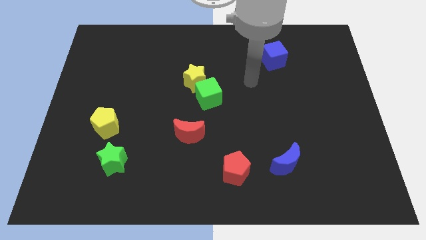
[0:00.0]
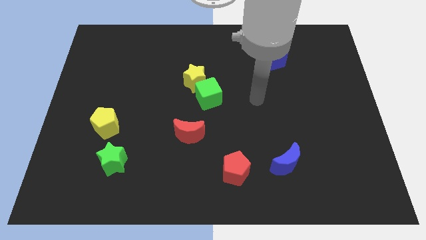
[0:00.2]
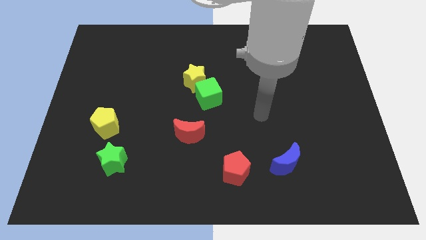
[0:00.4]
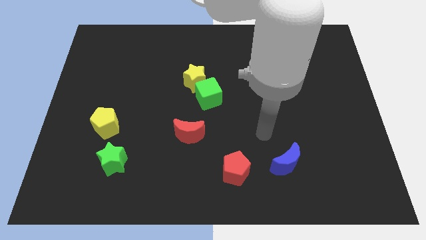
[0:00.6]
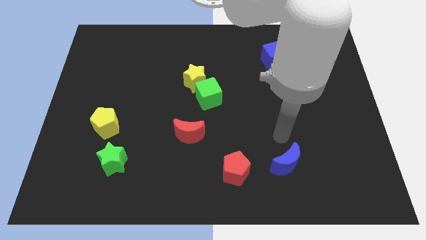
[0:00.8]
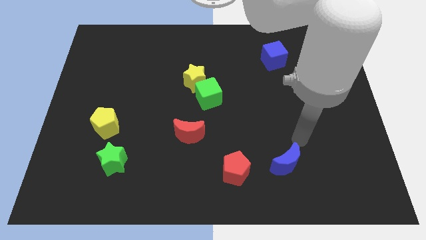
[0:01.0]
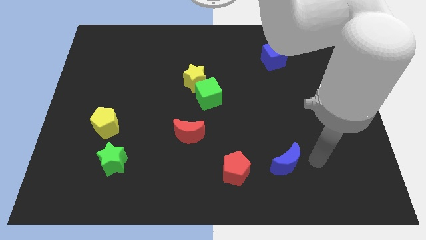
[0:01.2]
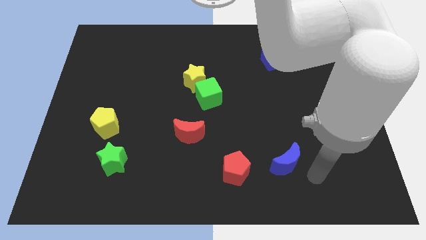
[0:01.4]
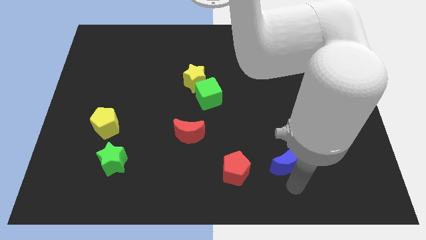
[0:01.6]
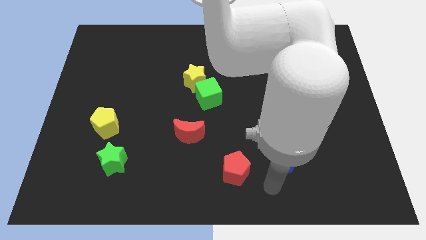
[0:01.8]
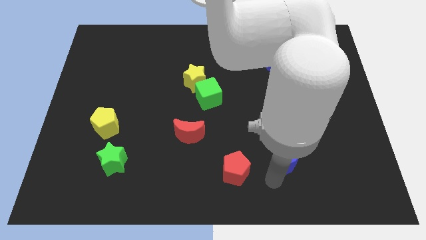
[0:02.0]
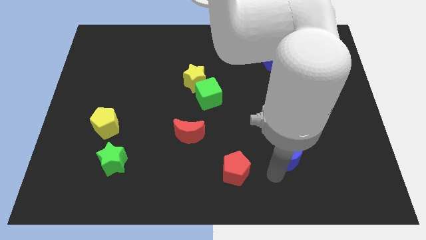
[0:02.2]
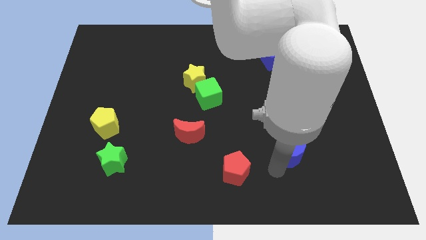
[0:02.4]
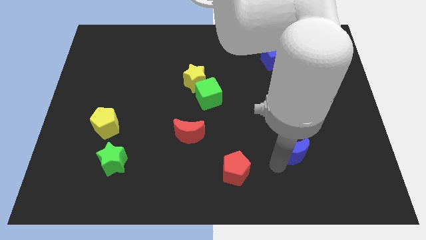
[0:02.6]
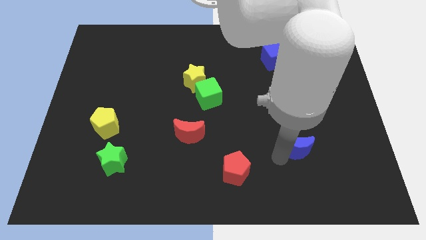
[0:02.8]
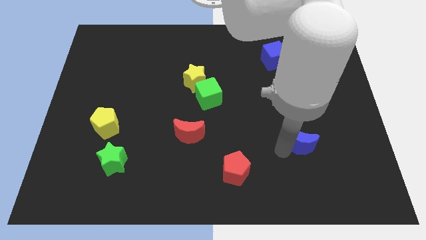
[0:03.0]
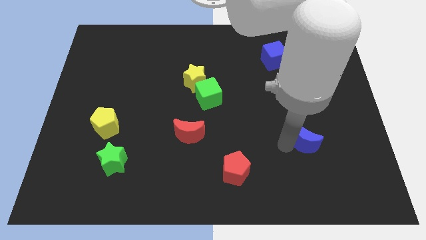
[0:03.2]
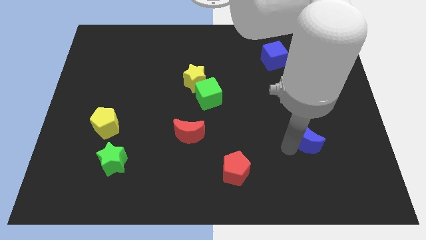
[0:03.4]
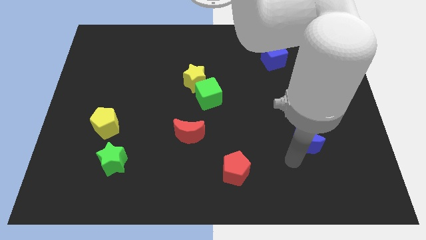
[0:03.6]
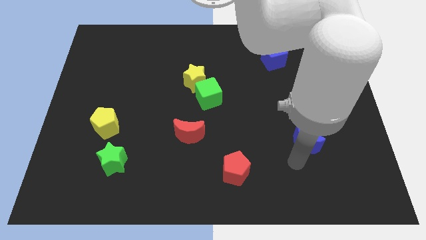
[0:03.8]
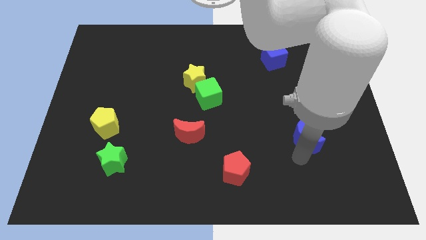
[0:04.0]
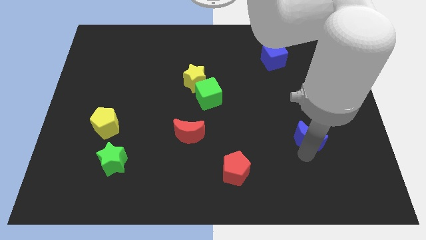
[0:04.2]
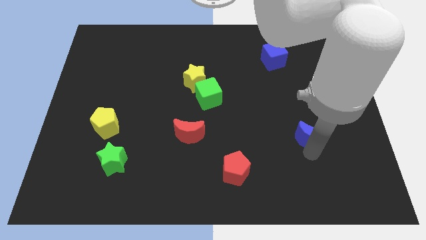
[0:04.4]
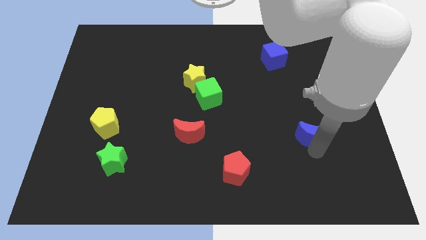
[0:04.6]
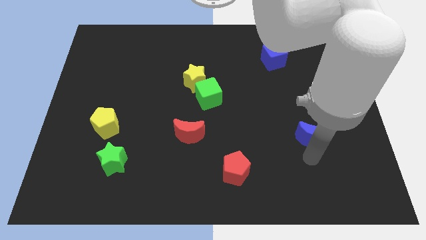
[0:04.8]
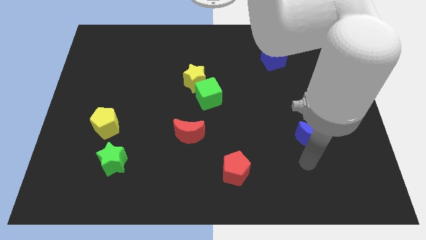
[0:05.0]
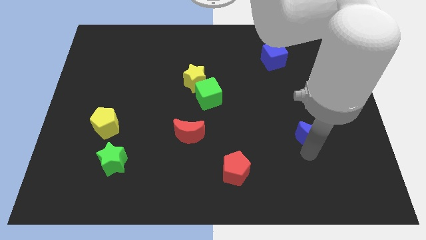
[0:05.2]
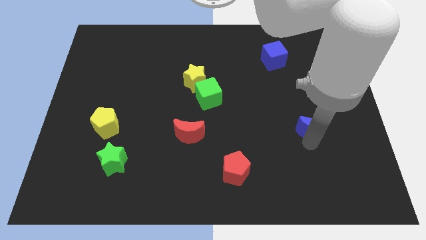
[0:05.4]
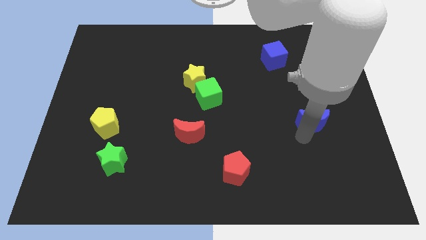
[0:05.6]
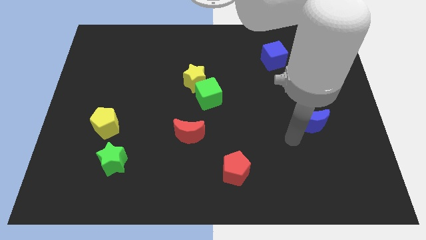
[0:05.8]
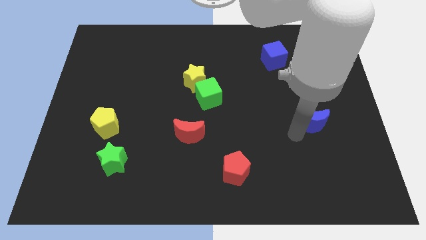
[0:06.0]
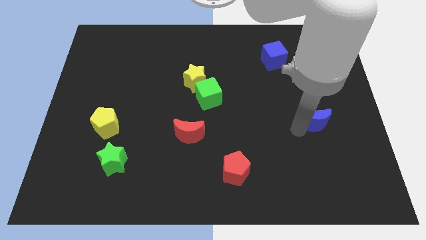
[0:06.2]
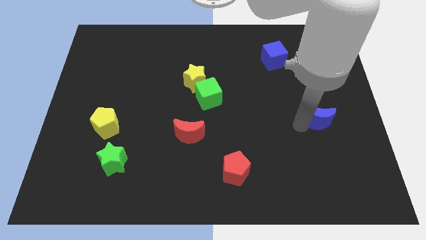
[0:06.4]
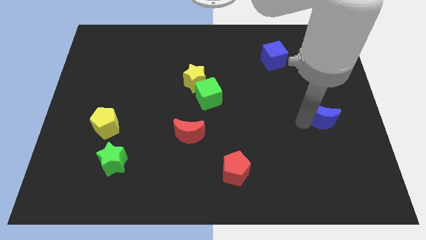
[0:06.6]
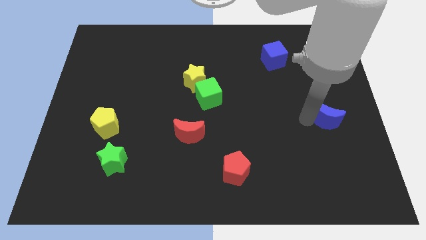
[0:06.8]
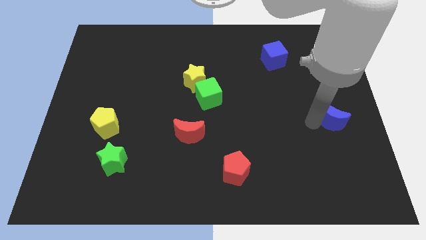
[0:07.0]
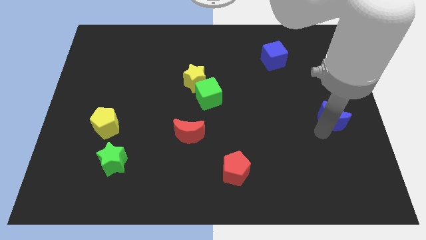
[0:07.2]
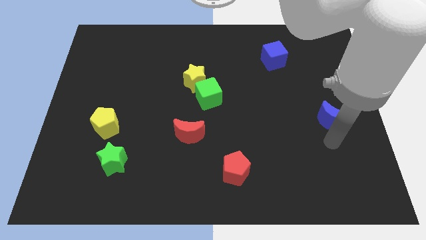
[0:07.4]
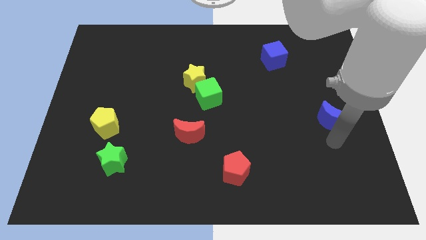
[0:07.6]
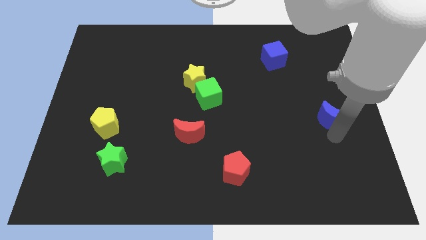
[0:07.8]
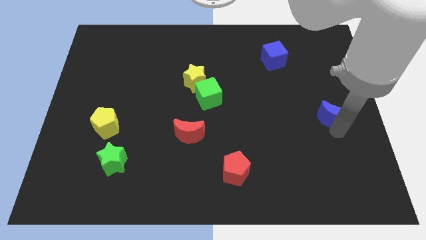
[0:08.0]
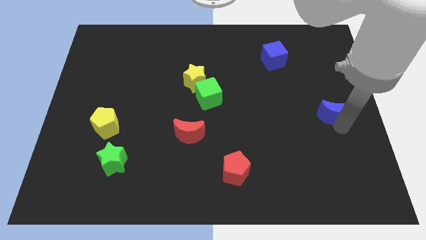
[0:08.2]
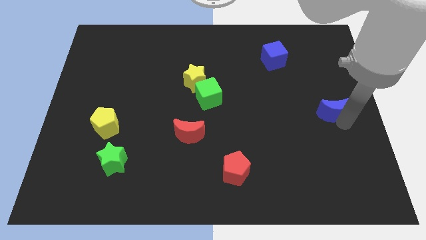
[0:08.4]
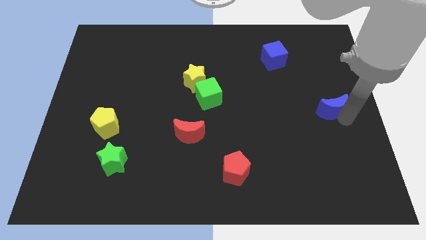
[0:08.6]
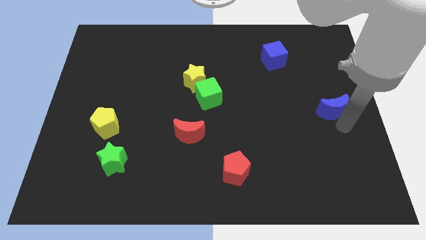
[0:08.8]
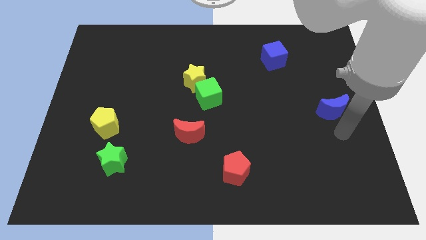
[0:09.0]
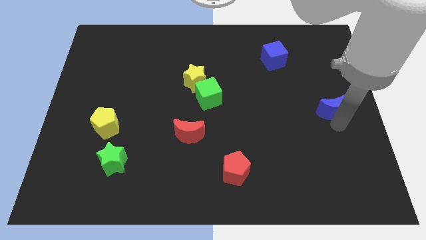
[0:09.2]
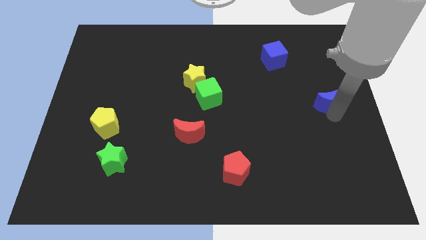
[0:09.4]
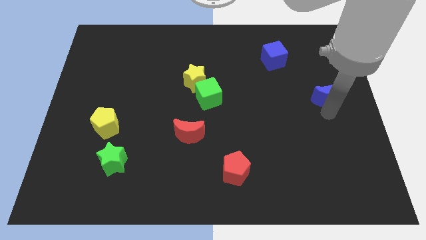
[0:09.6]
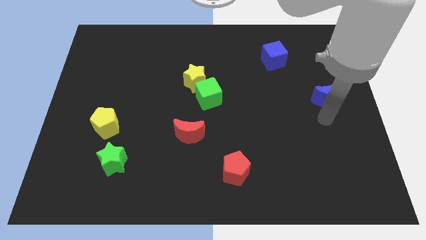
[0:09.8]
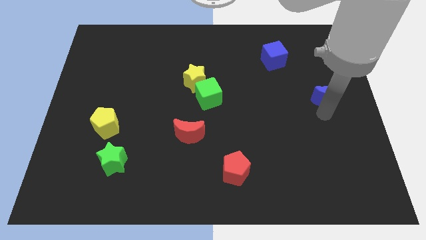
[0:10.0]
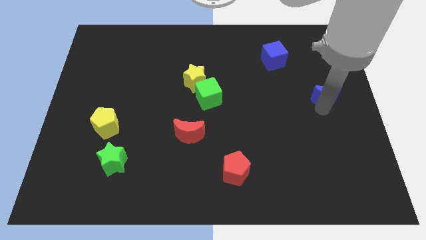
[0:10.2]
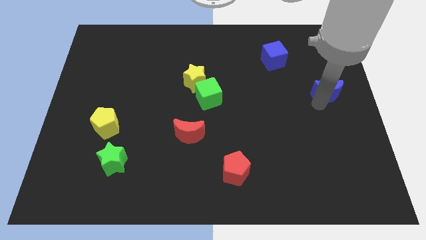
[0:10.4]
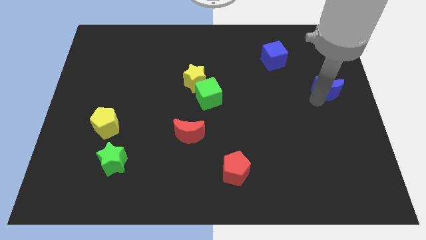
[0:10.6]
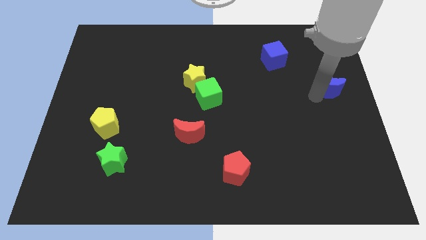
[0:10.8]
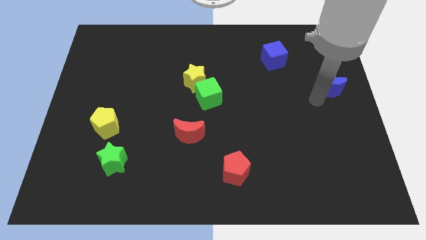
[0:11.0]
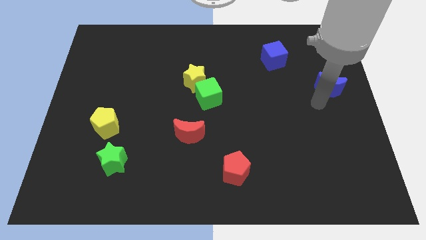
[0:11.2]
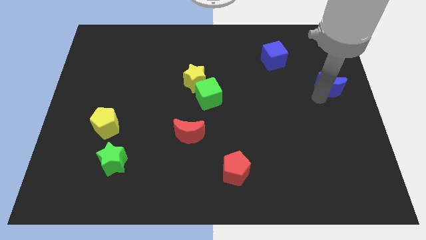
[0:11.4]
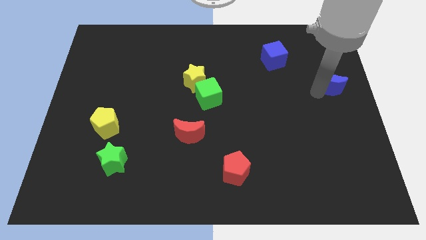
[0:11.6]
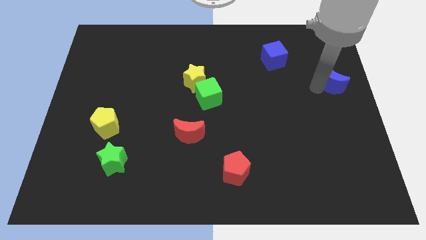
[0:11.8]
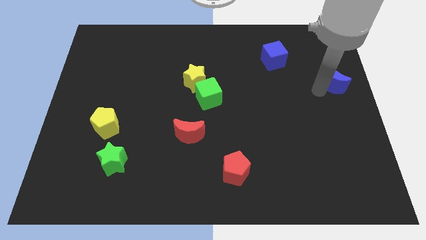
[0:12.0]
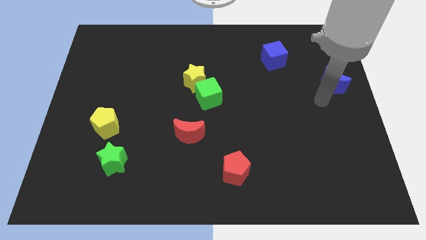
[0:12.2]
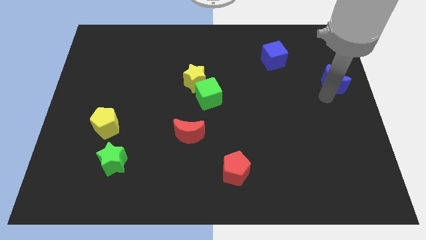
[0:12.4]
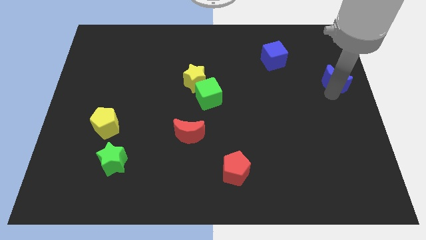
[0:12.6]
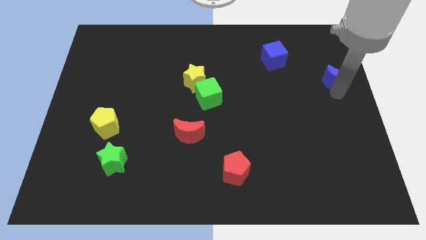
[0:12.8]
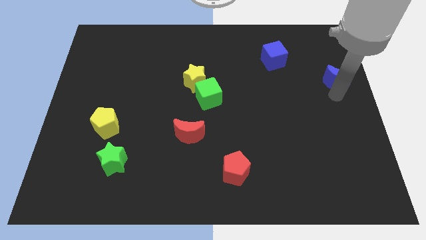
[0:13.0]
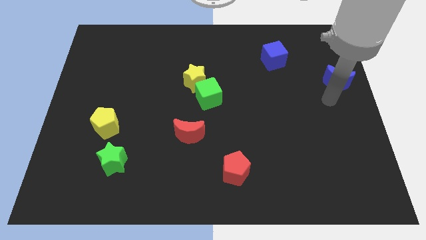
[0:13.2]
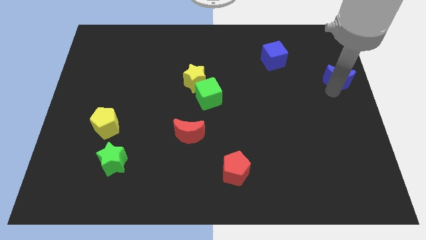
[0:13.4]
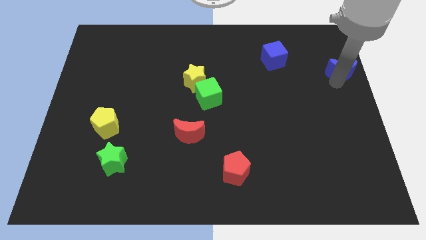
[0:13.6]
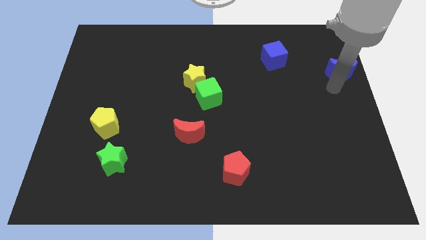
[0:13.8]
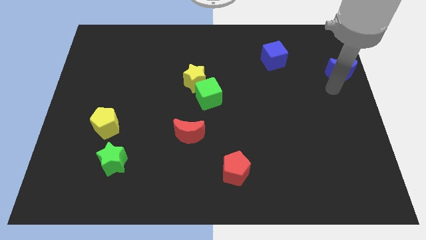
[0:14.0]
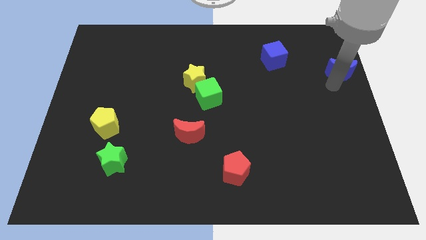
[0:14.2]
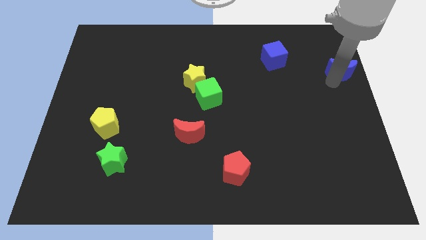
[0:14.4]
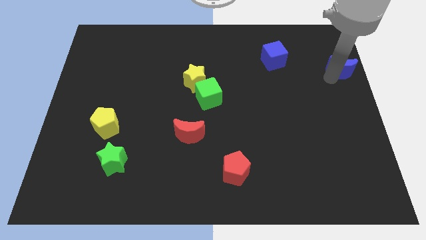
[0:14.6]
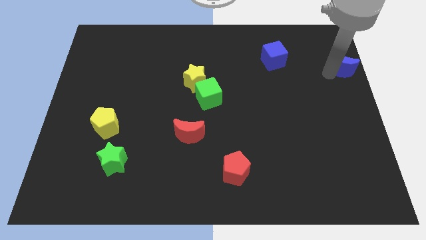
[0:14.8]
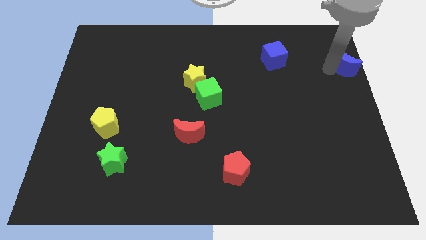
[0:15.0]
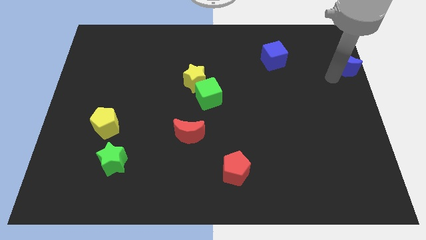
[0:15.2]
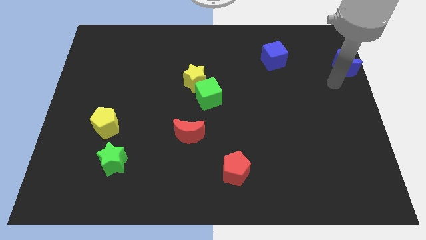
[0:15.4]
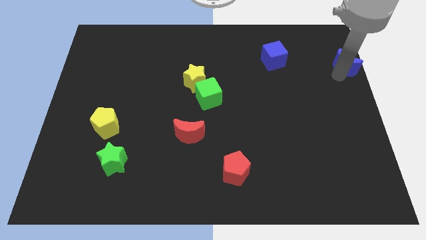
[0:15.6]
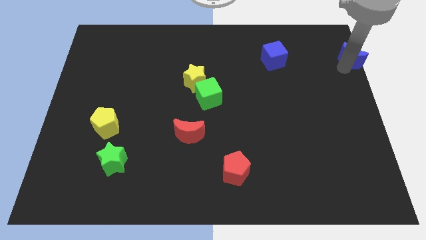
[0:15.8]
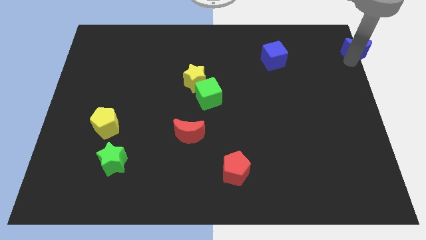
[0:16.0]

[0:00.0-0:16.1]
push the blue moon to the top right corner
